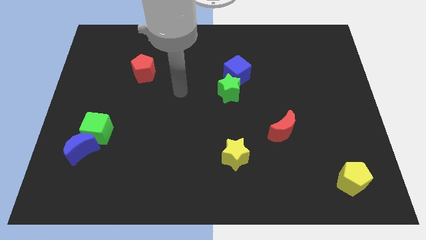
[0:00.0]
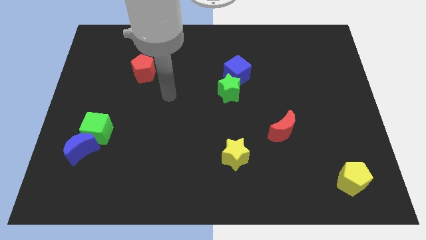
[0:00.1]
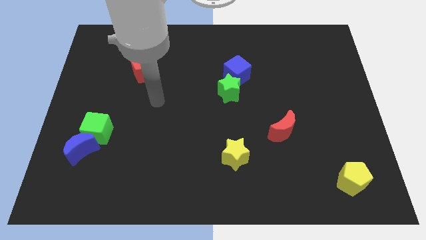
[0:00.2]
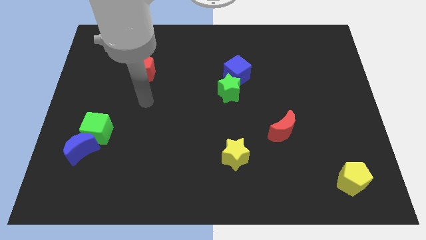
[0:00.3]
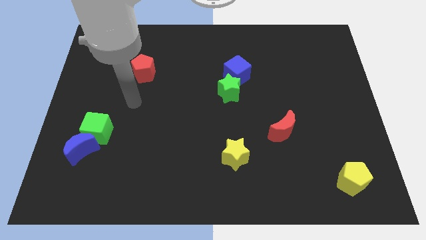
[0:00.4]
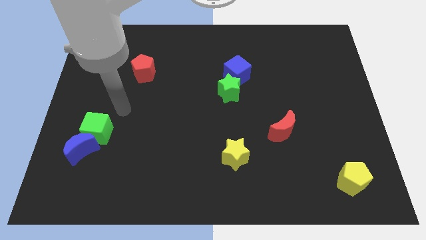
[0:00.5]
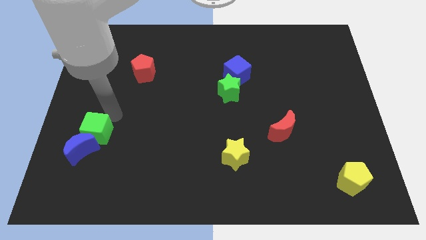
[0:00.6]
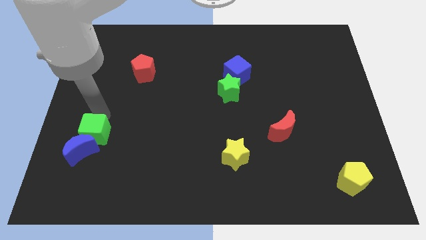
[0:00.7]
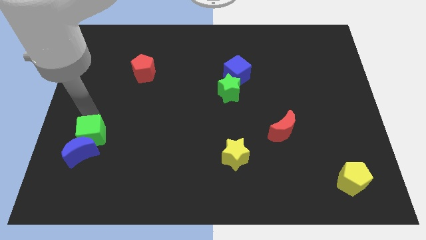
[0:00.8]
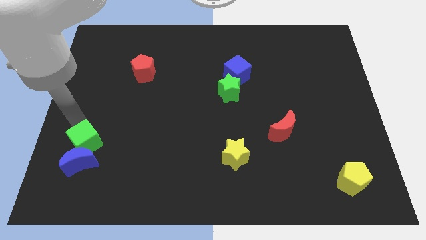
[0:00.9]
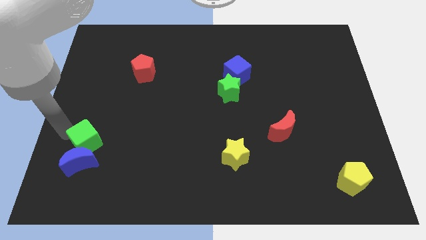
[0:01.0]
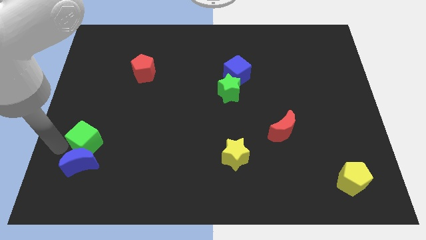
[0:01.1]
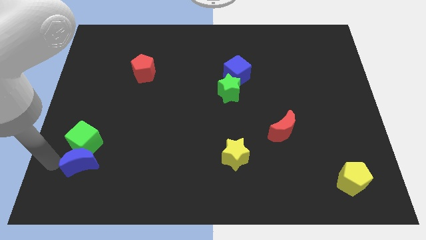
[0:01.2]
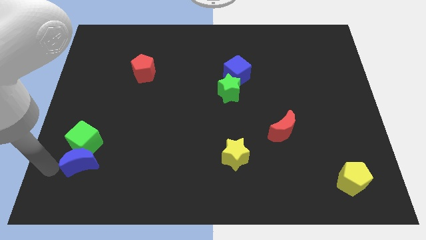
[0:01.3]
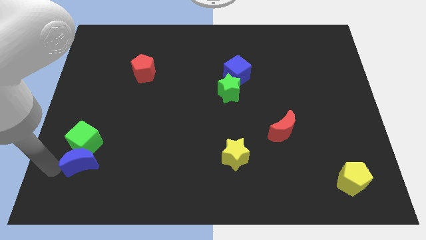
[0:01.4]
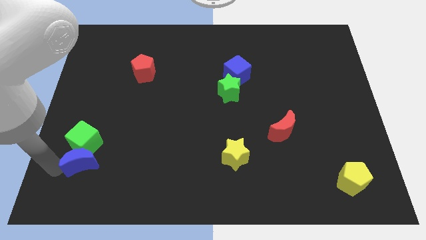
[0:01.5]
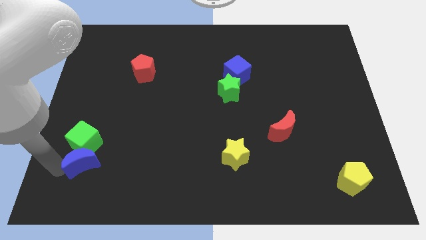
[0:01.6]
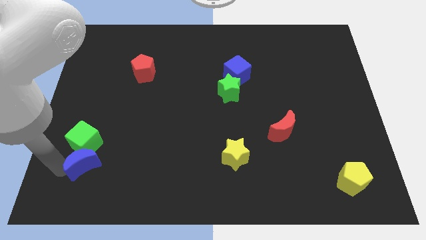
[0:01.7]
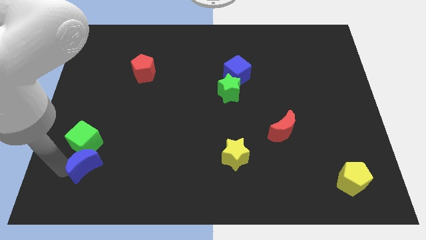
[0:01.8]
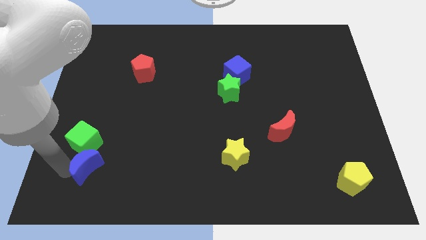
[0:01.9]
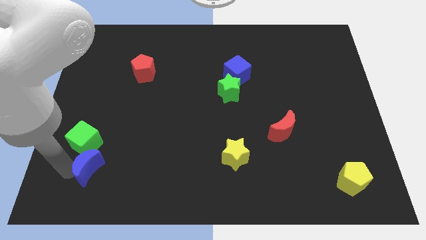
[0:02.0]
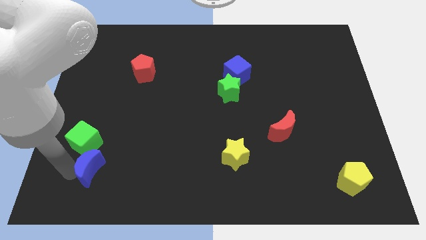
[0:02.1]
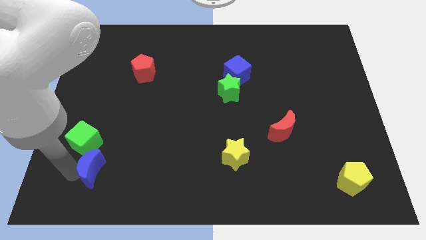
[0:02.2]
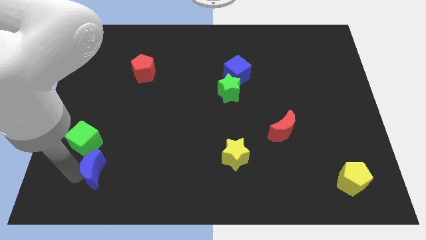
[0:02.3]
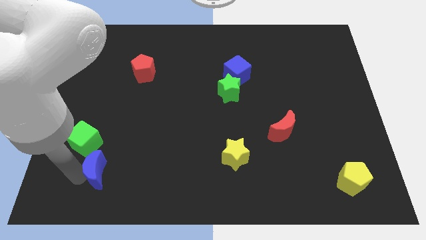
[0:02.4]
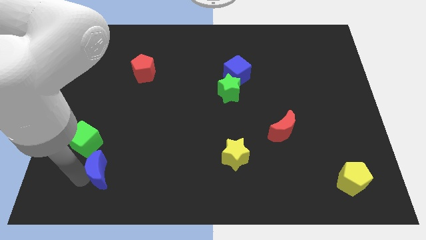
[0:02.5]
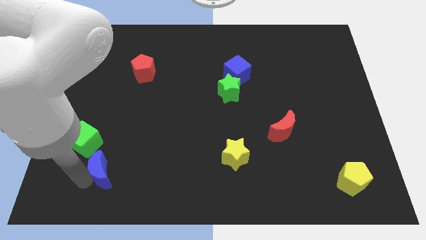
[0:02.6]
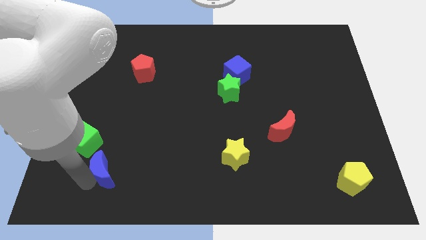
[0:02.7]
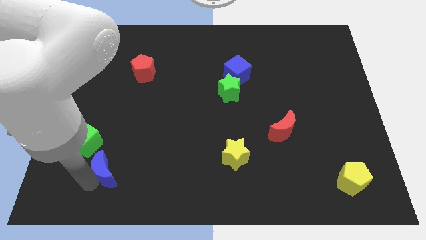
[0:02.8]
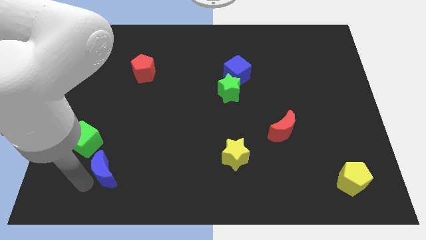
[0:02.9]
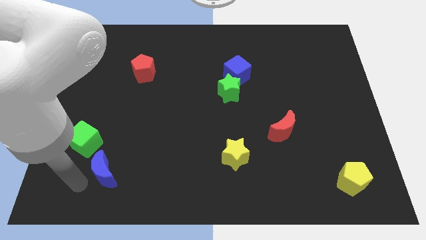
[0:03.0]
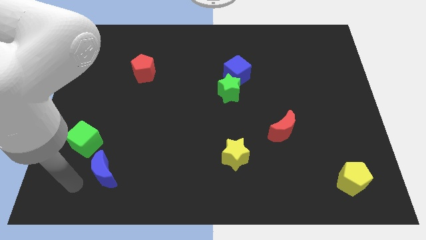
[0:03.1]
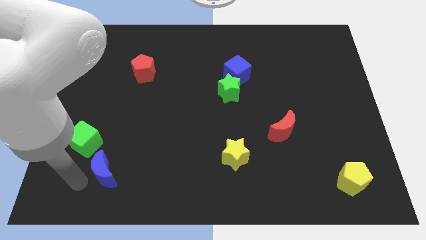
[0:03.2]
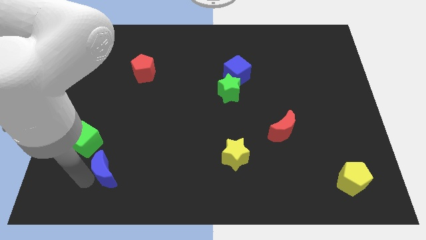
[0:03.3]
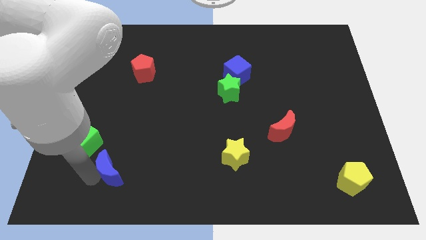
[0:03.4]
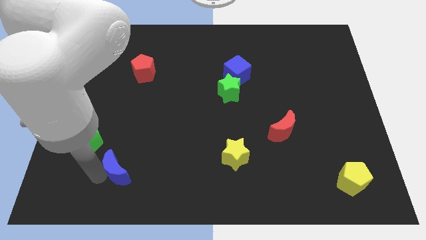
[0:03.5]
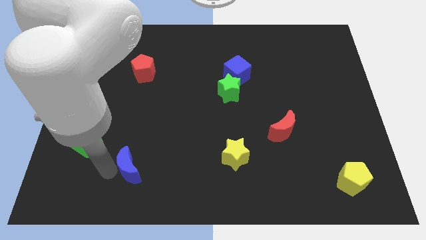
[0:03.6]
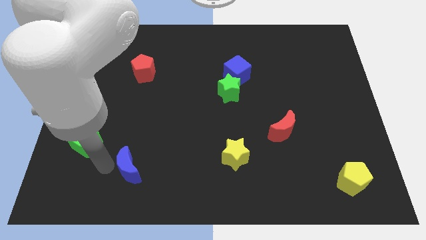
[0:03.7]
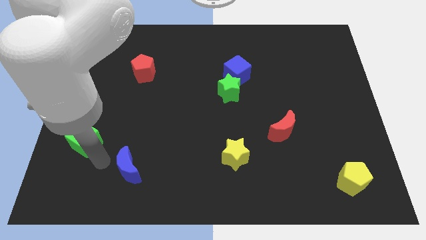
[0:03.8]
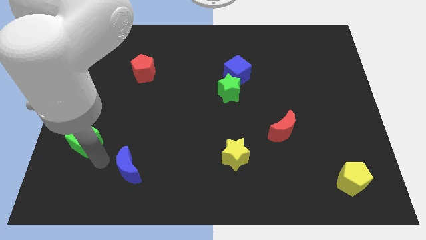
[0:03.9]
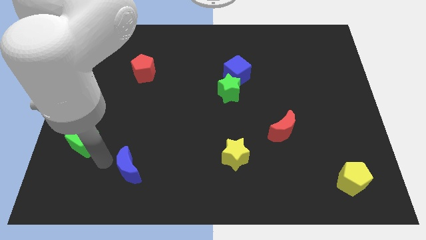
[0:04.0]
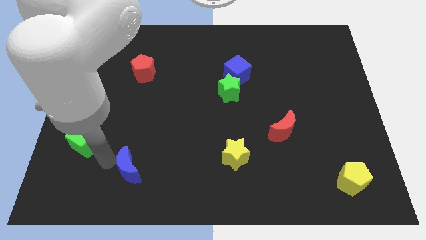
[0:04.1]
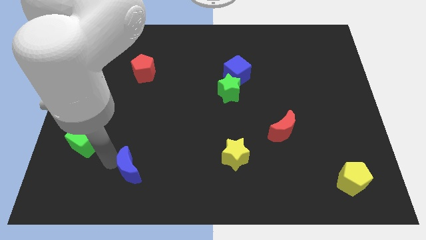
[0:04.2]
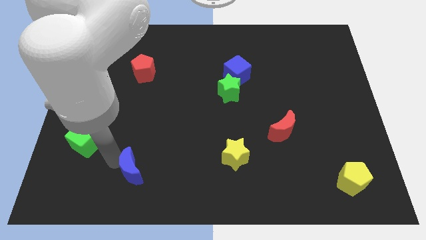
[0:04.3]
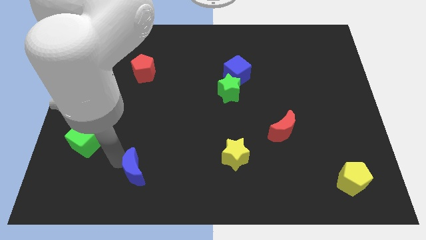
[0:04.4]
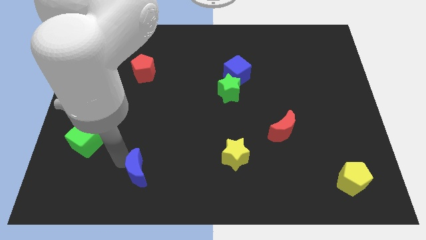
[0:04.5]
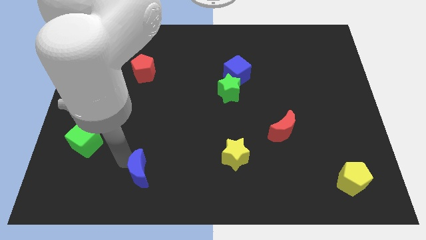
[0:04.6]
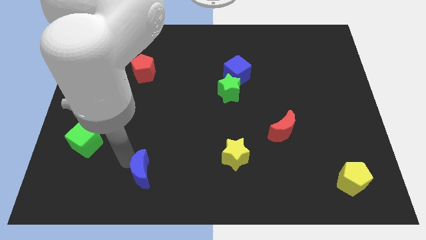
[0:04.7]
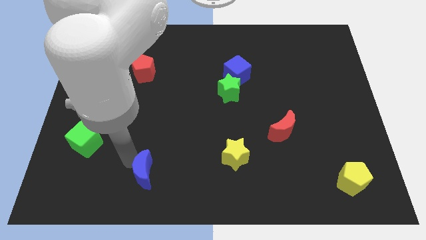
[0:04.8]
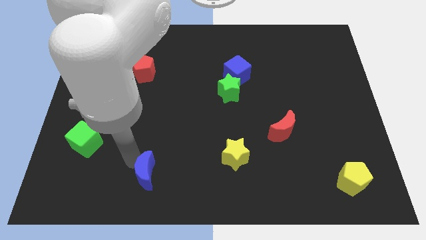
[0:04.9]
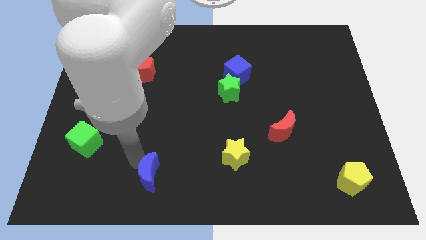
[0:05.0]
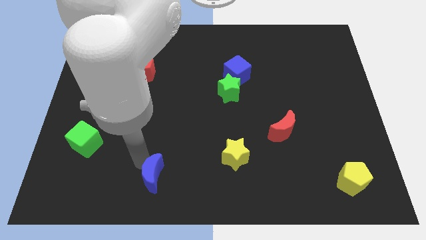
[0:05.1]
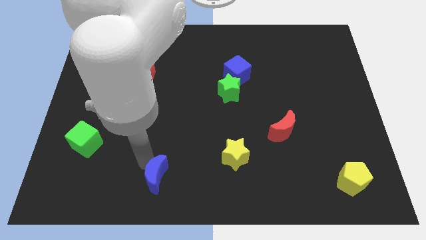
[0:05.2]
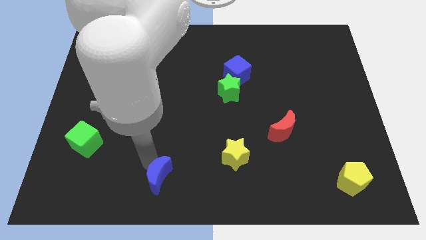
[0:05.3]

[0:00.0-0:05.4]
push the blue moon to the bottom side

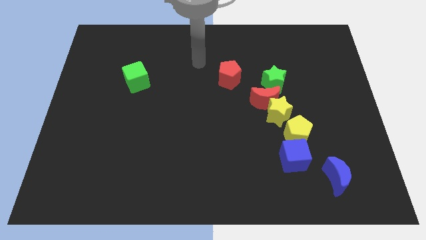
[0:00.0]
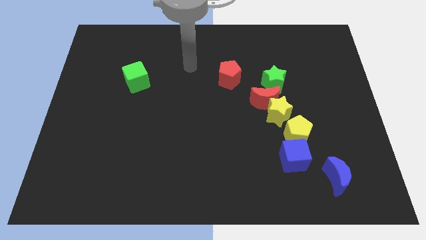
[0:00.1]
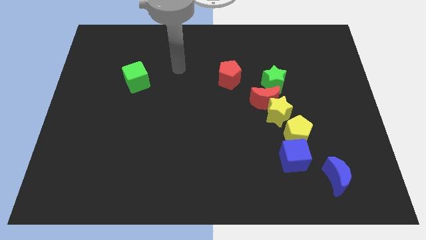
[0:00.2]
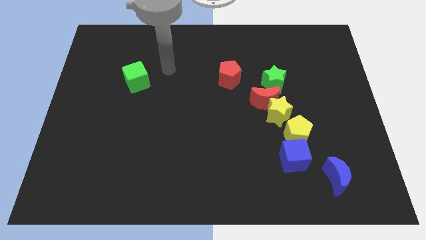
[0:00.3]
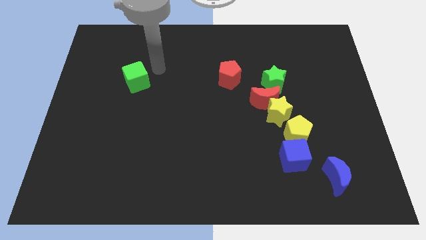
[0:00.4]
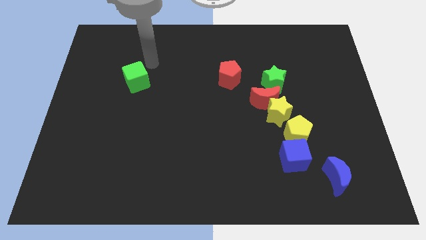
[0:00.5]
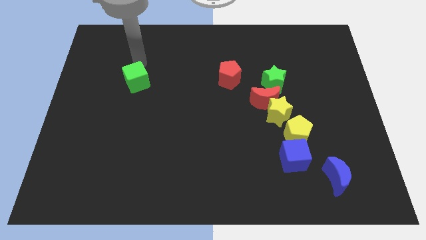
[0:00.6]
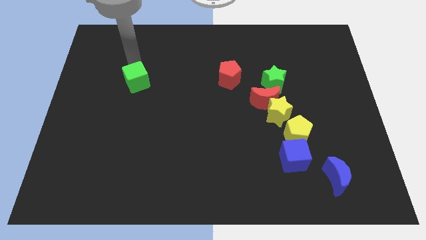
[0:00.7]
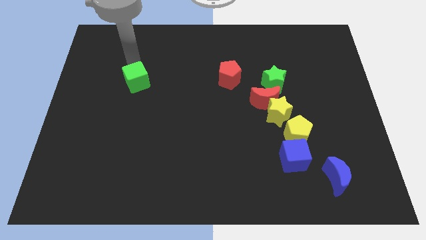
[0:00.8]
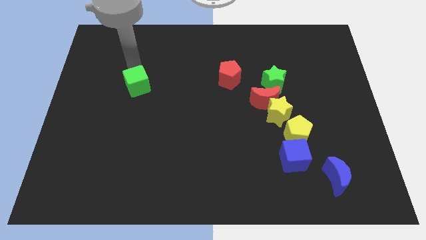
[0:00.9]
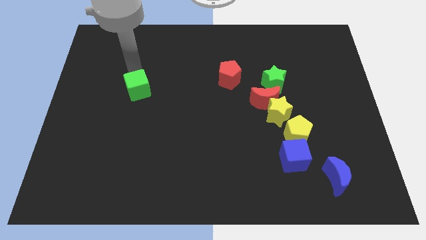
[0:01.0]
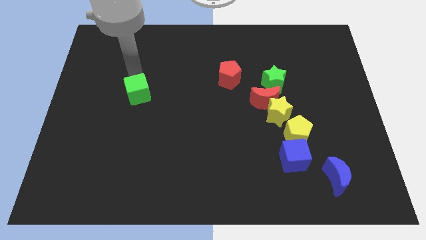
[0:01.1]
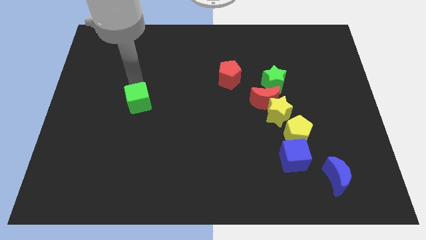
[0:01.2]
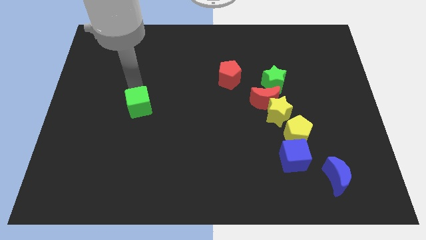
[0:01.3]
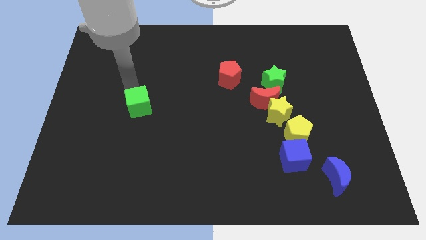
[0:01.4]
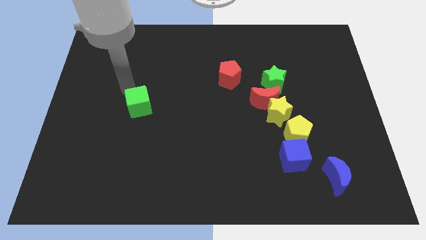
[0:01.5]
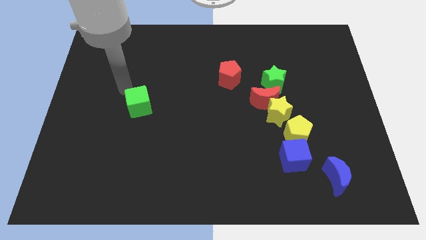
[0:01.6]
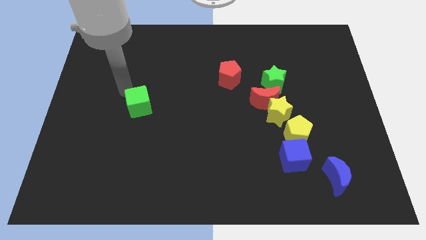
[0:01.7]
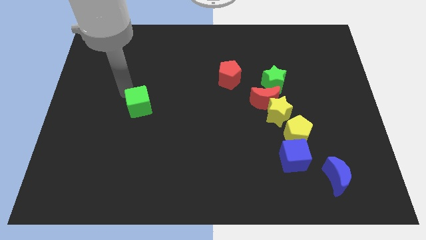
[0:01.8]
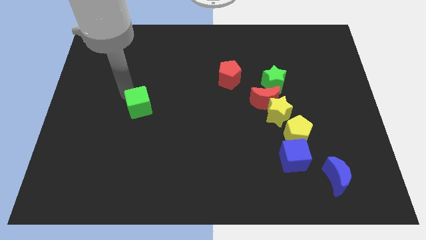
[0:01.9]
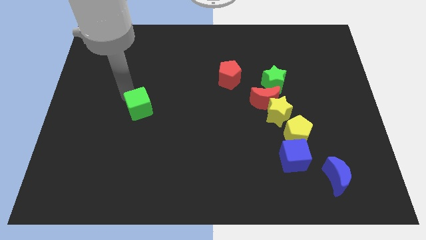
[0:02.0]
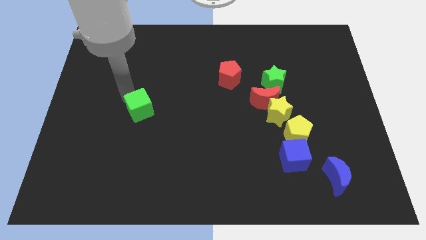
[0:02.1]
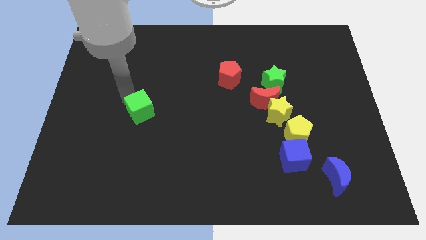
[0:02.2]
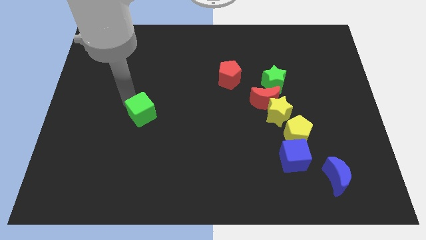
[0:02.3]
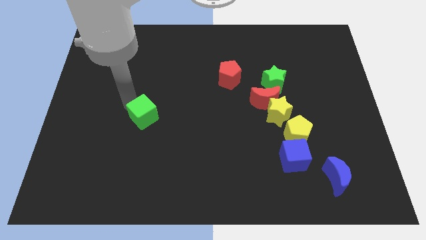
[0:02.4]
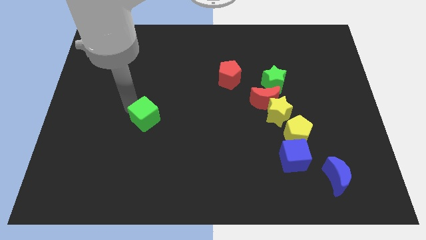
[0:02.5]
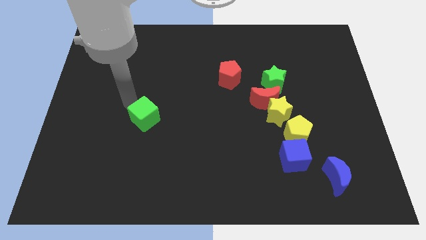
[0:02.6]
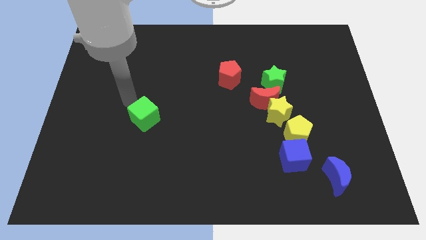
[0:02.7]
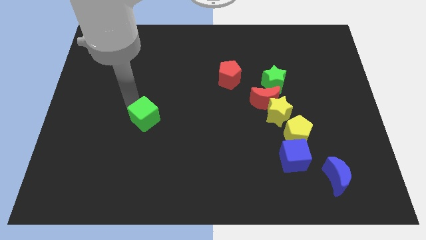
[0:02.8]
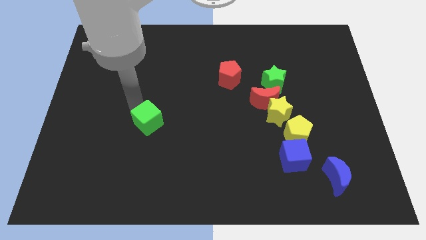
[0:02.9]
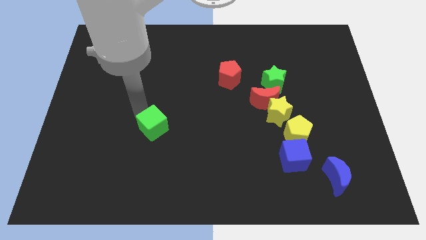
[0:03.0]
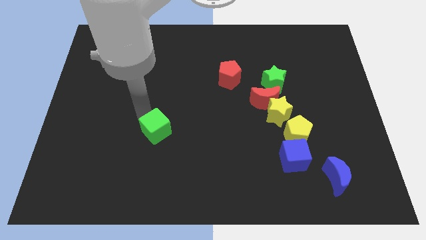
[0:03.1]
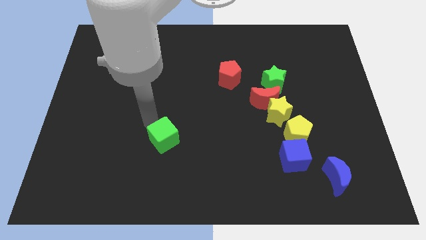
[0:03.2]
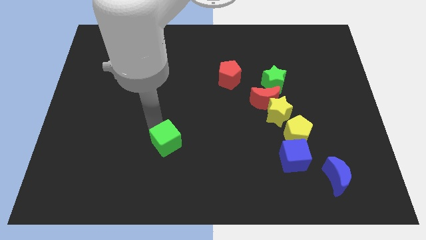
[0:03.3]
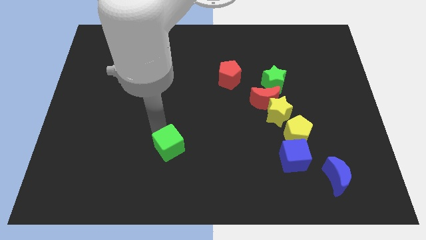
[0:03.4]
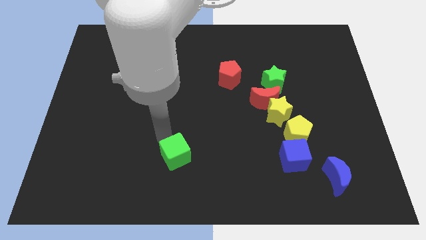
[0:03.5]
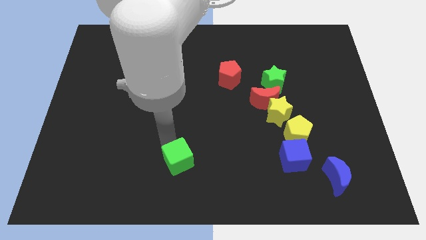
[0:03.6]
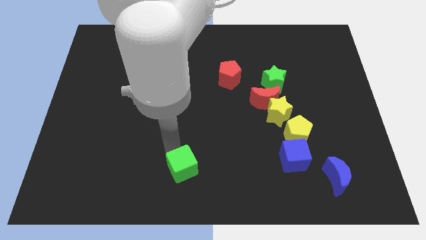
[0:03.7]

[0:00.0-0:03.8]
put the green cube to the bottom
